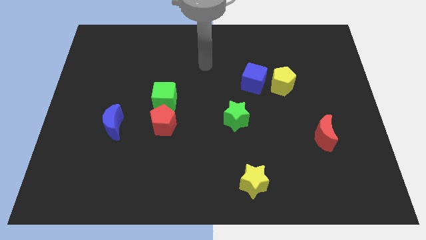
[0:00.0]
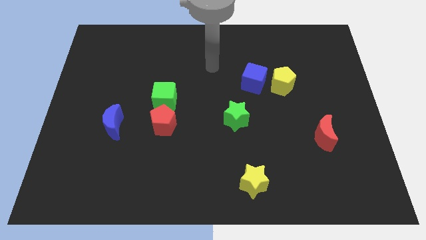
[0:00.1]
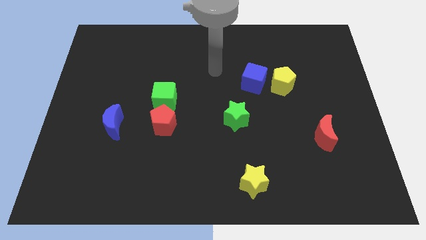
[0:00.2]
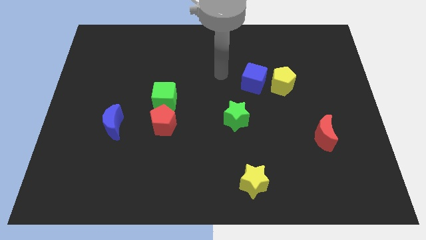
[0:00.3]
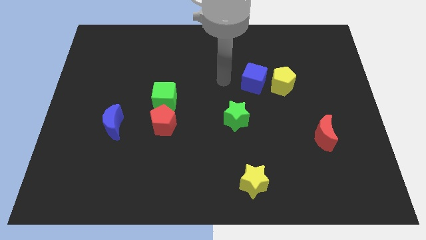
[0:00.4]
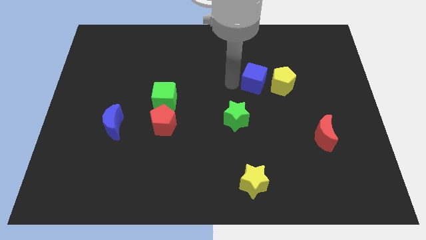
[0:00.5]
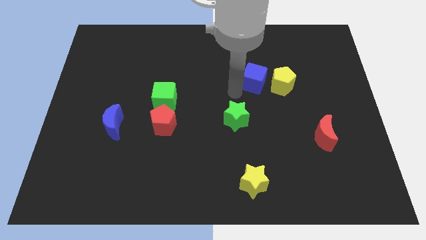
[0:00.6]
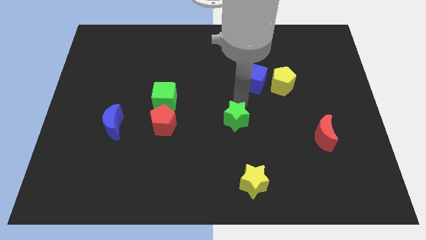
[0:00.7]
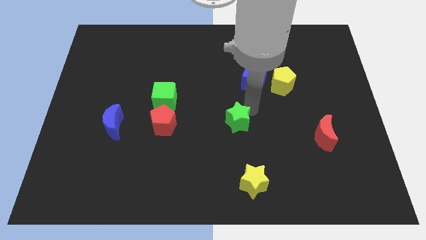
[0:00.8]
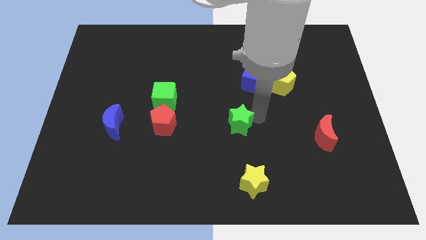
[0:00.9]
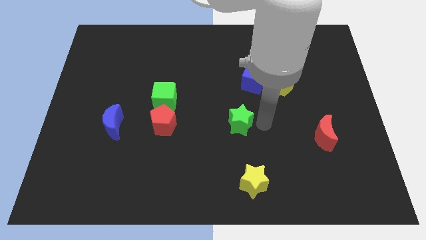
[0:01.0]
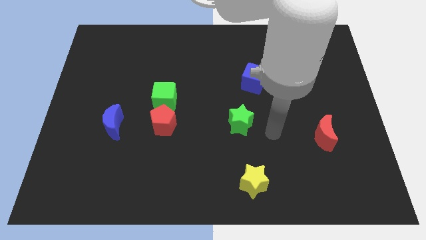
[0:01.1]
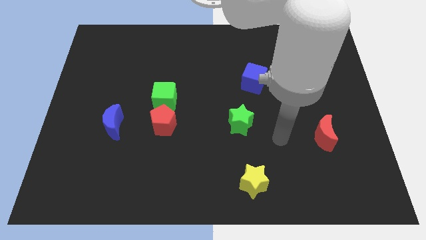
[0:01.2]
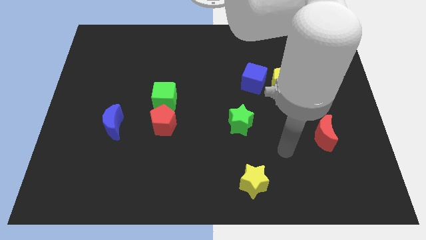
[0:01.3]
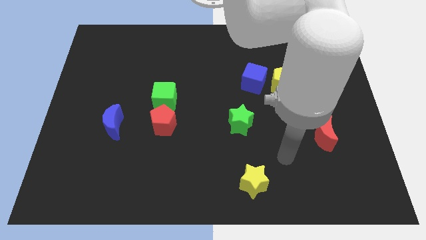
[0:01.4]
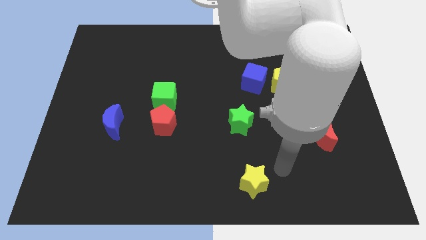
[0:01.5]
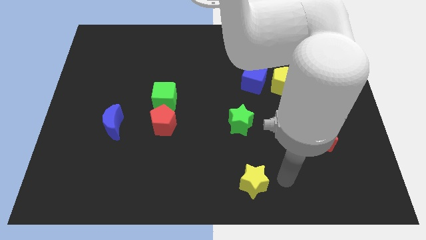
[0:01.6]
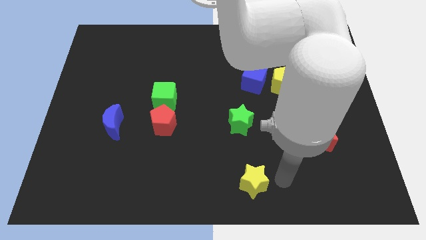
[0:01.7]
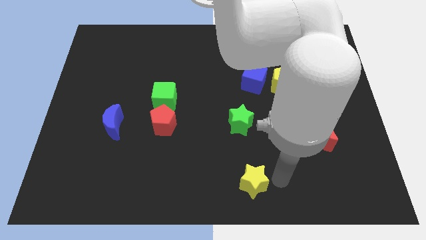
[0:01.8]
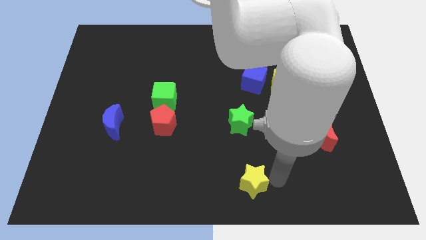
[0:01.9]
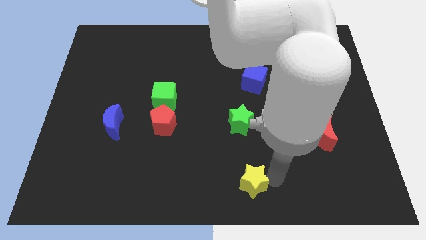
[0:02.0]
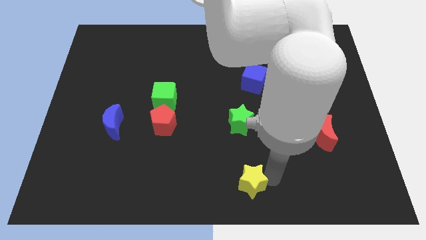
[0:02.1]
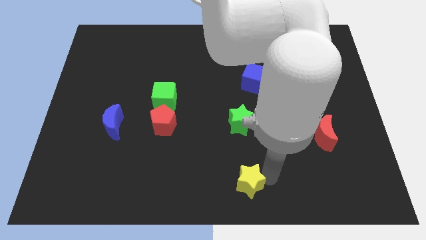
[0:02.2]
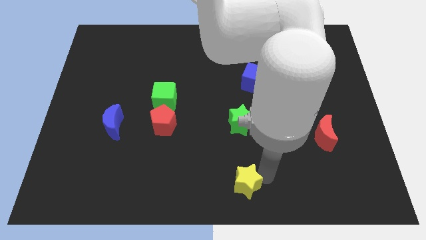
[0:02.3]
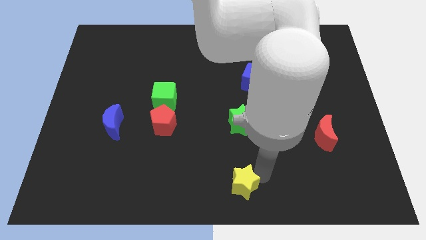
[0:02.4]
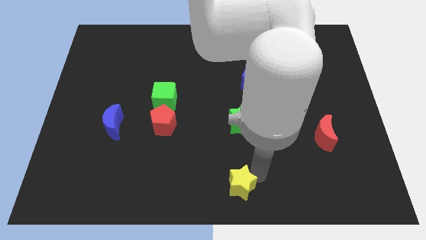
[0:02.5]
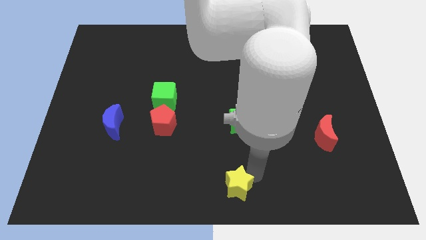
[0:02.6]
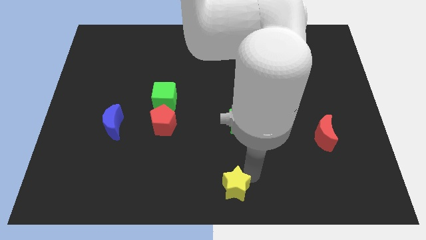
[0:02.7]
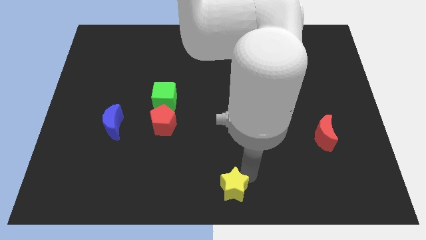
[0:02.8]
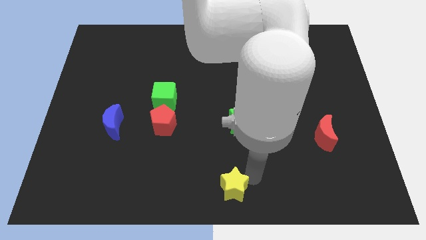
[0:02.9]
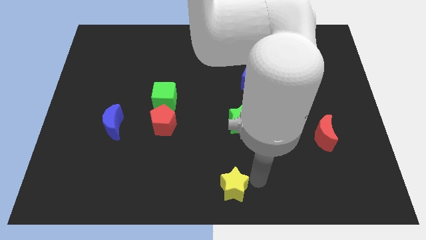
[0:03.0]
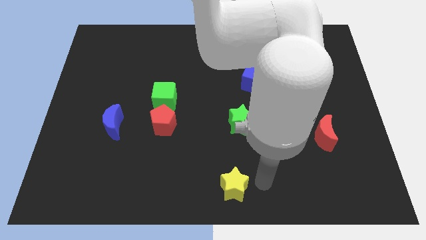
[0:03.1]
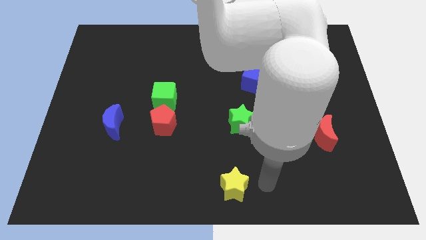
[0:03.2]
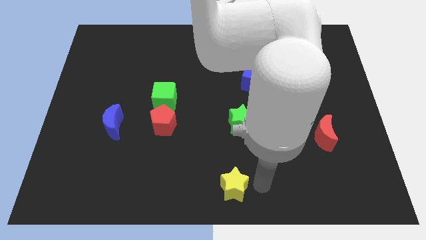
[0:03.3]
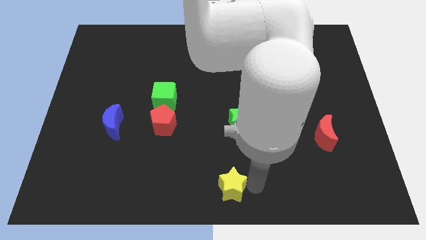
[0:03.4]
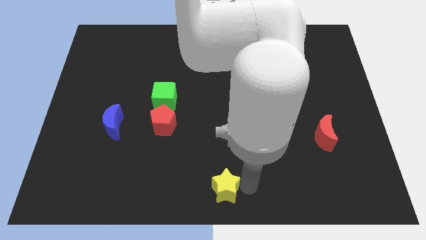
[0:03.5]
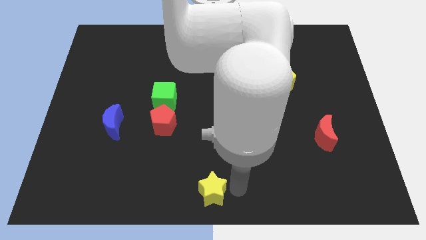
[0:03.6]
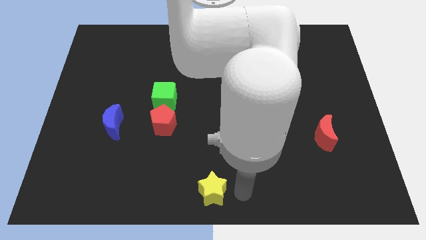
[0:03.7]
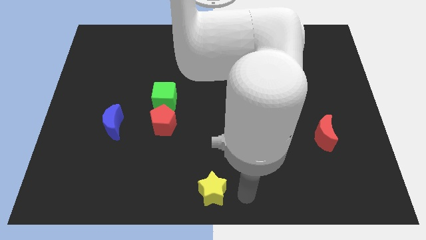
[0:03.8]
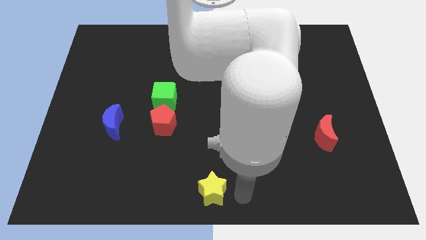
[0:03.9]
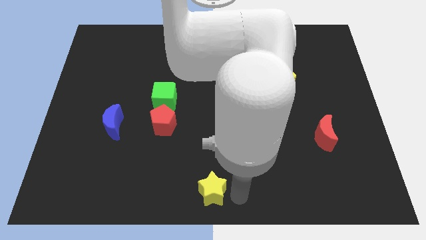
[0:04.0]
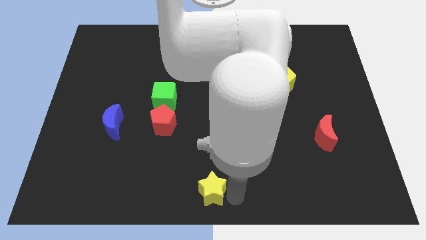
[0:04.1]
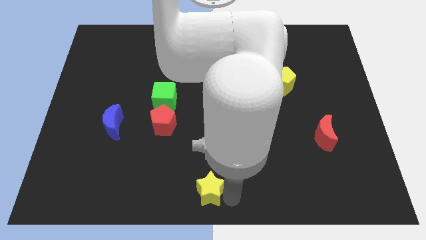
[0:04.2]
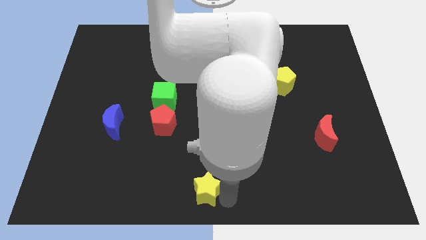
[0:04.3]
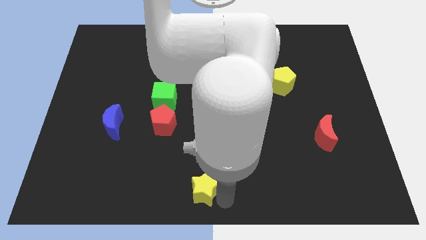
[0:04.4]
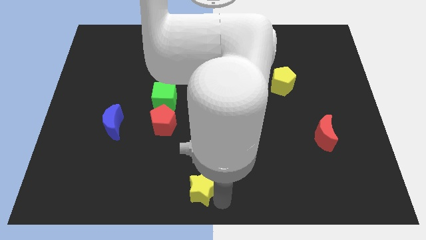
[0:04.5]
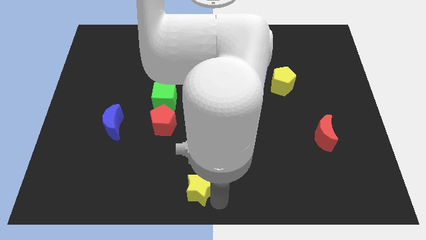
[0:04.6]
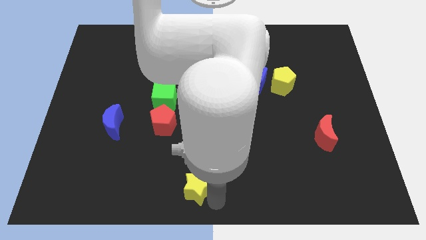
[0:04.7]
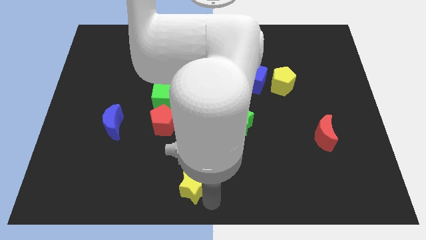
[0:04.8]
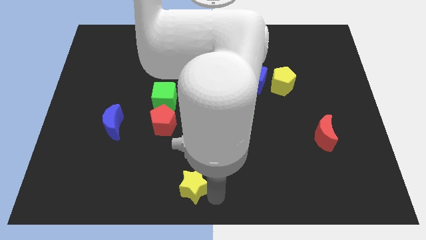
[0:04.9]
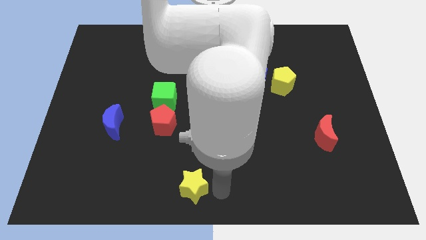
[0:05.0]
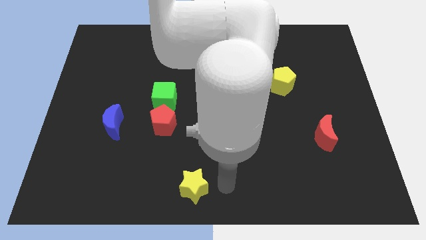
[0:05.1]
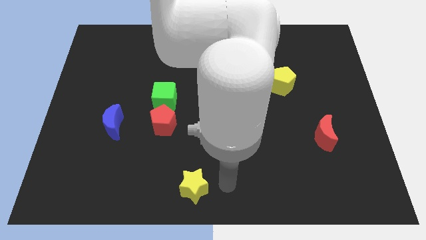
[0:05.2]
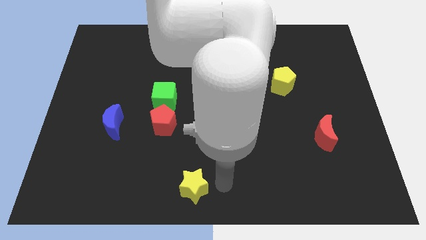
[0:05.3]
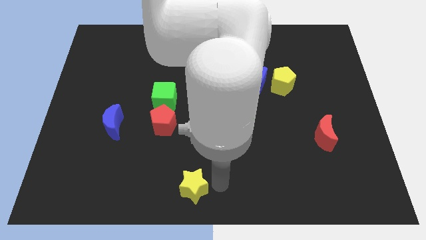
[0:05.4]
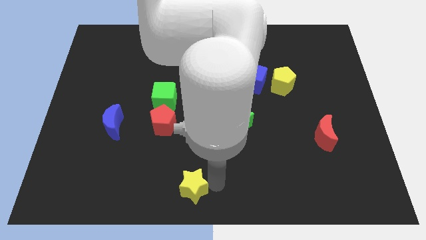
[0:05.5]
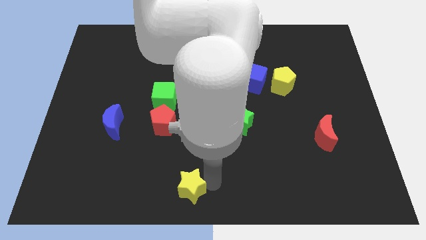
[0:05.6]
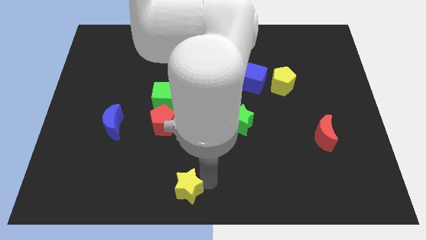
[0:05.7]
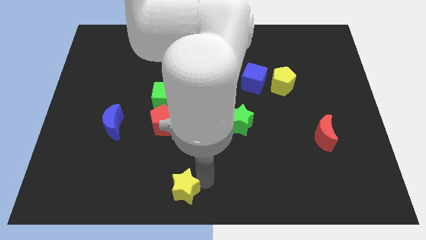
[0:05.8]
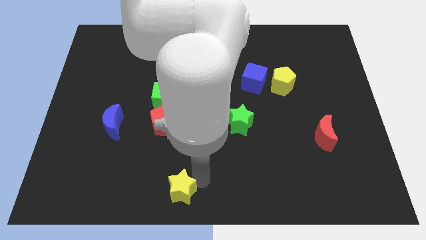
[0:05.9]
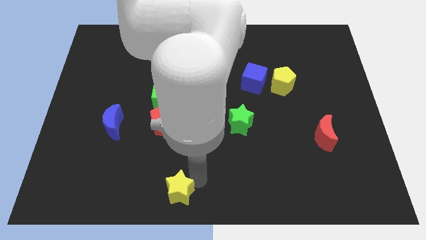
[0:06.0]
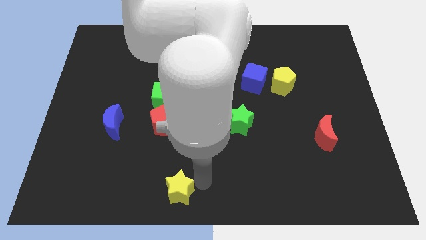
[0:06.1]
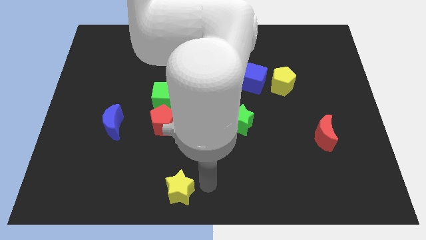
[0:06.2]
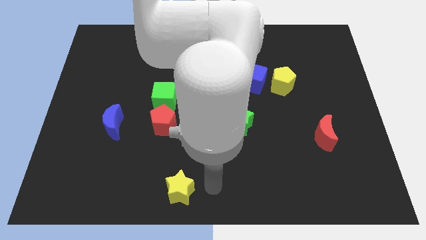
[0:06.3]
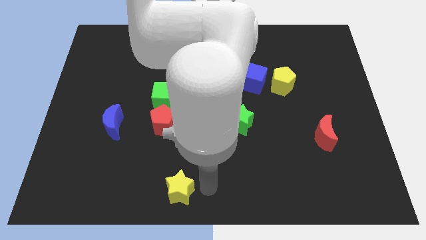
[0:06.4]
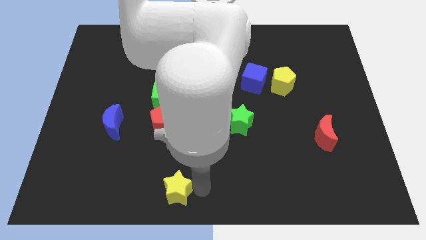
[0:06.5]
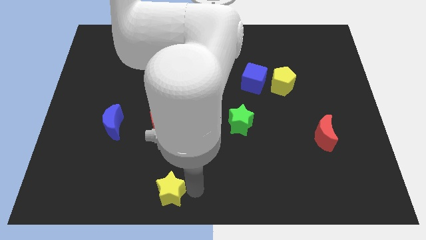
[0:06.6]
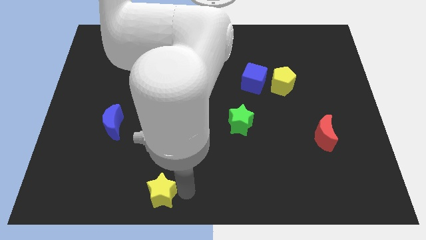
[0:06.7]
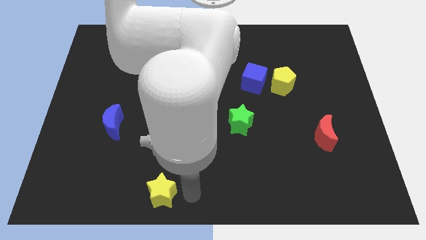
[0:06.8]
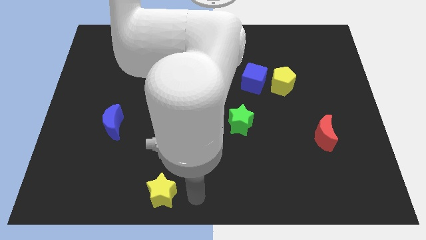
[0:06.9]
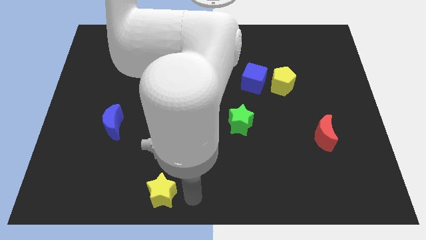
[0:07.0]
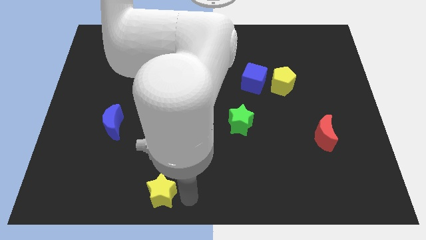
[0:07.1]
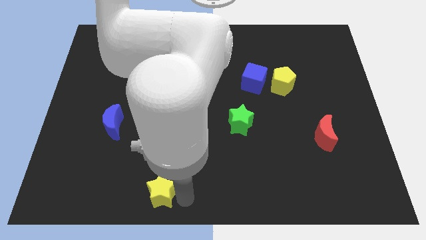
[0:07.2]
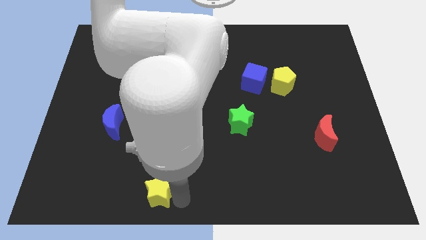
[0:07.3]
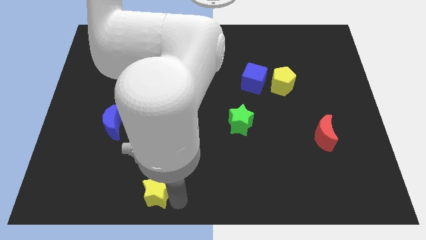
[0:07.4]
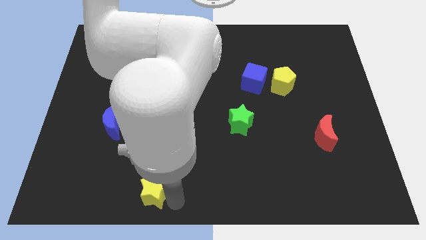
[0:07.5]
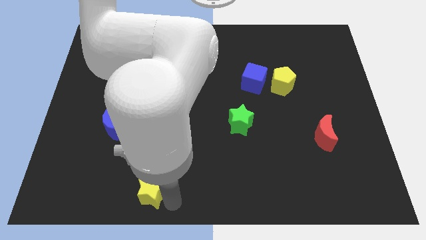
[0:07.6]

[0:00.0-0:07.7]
move the yellow star left

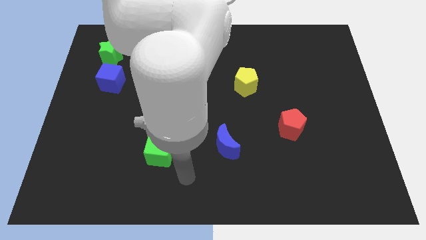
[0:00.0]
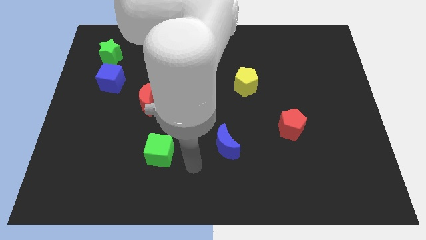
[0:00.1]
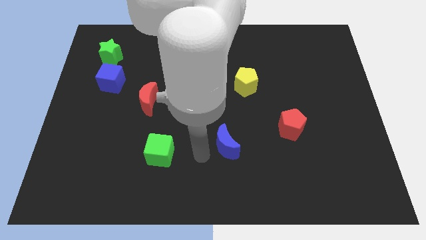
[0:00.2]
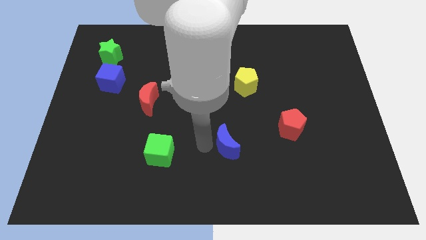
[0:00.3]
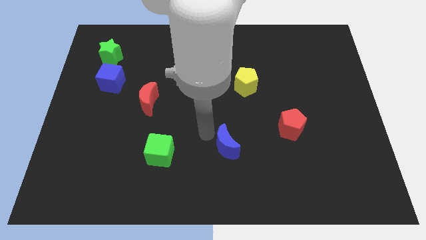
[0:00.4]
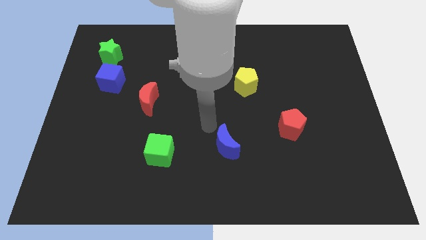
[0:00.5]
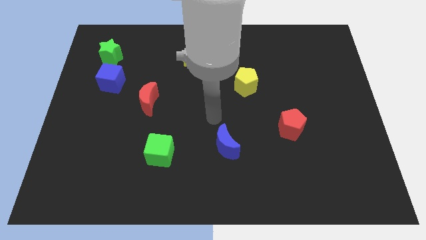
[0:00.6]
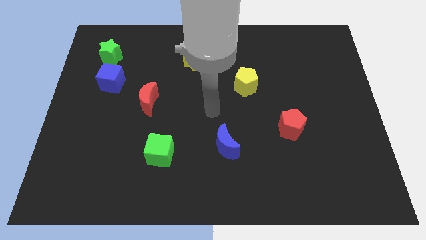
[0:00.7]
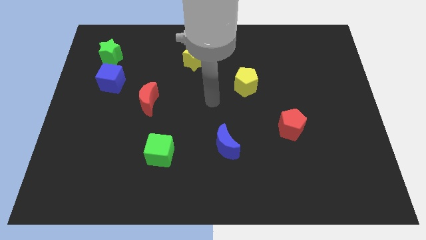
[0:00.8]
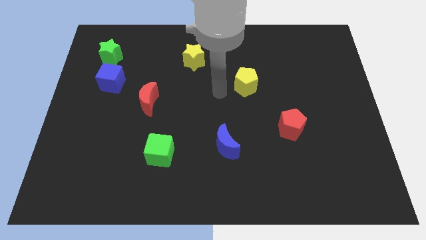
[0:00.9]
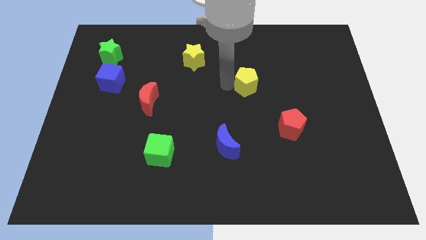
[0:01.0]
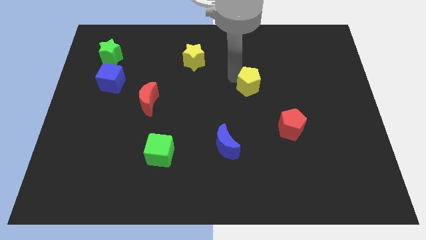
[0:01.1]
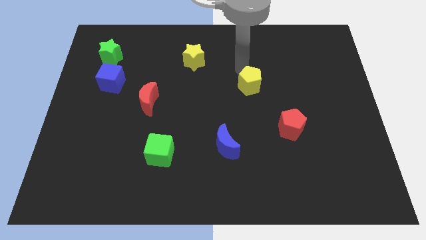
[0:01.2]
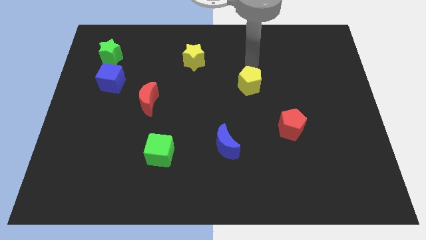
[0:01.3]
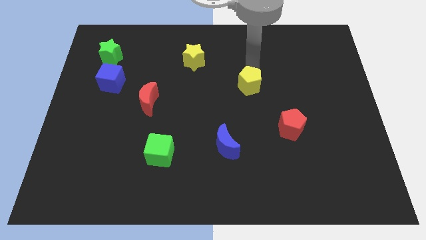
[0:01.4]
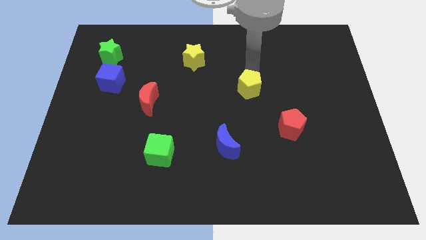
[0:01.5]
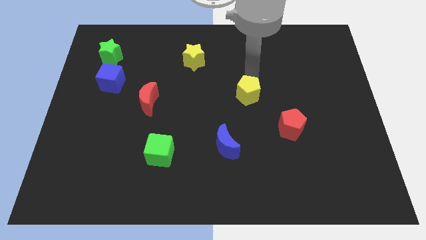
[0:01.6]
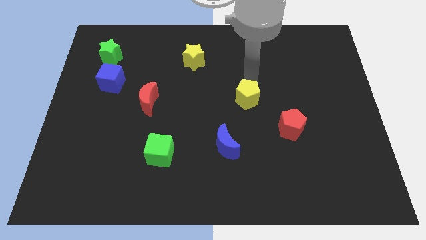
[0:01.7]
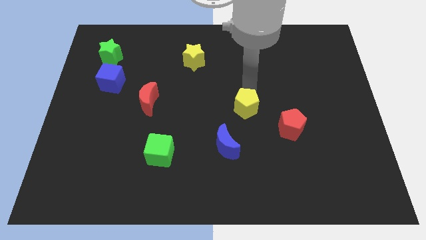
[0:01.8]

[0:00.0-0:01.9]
slide the yellow pentagon slightly down
